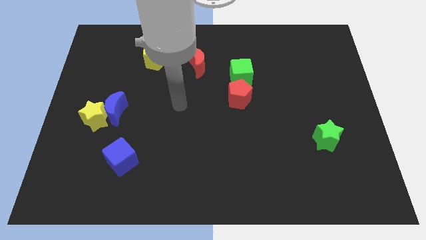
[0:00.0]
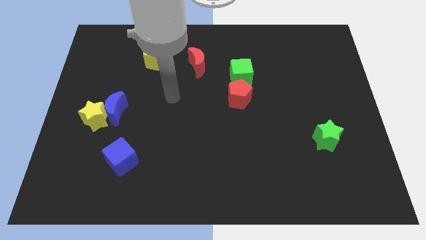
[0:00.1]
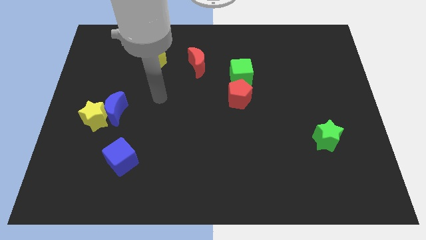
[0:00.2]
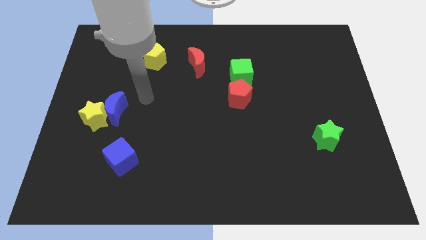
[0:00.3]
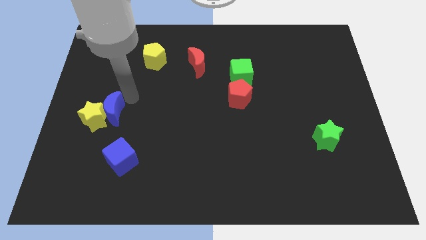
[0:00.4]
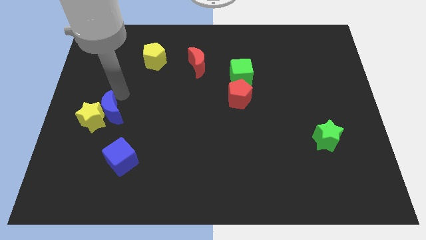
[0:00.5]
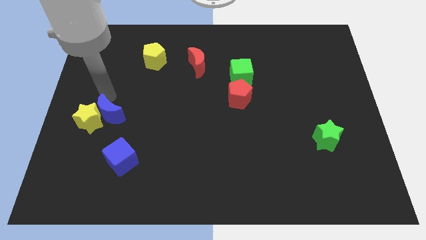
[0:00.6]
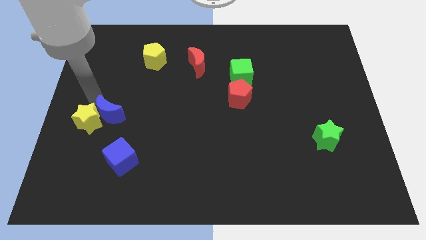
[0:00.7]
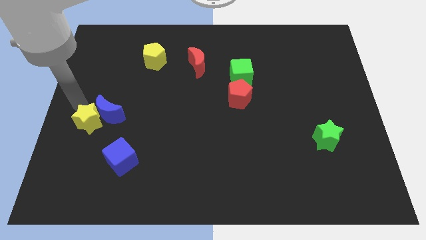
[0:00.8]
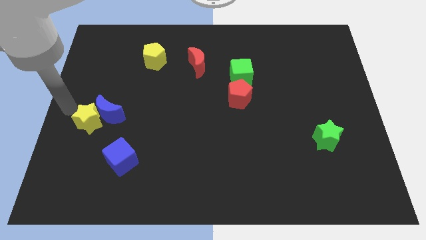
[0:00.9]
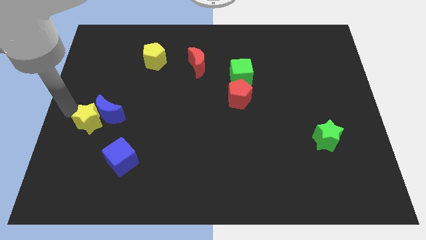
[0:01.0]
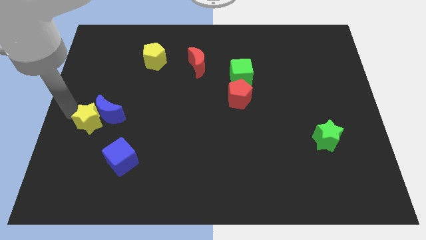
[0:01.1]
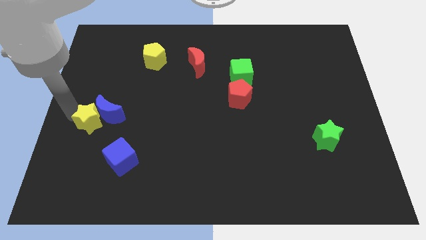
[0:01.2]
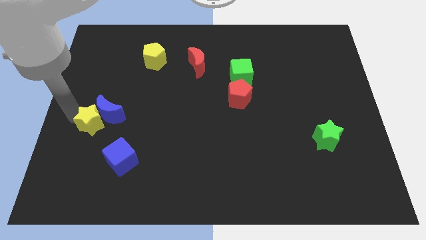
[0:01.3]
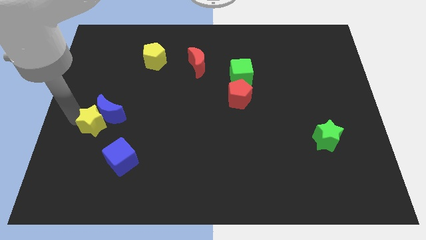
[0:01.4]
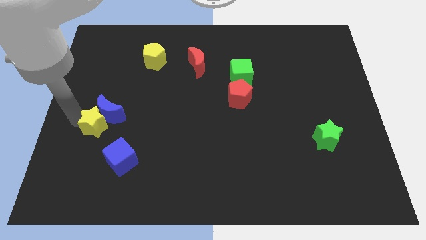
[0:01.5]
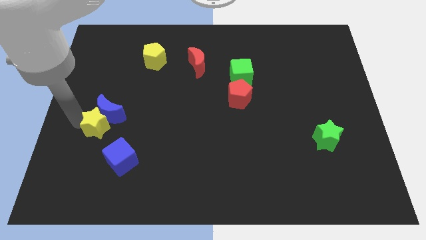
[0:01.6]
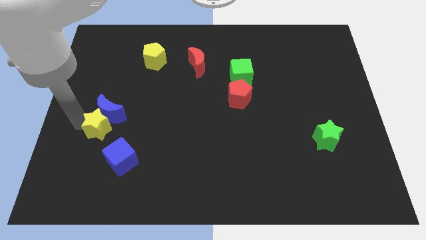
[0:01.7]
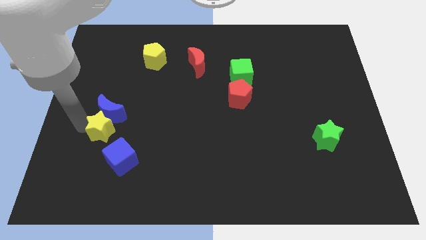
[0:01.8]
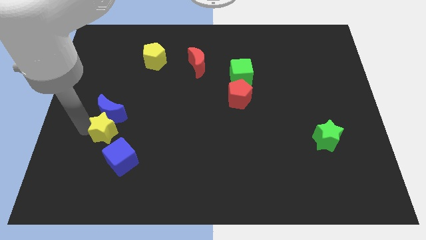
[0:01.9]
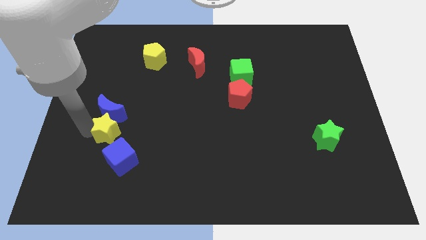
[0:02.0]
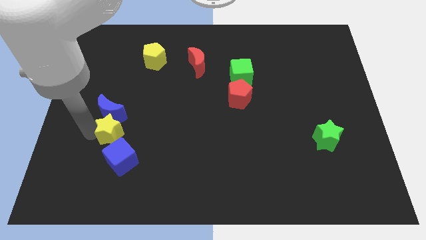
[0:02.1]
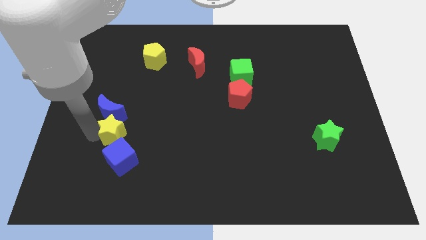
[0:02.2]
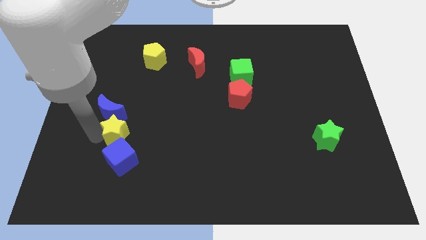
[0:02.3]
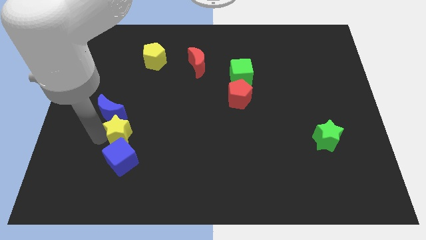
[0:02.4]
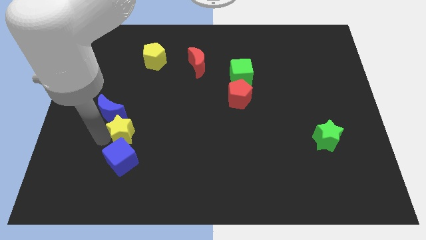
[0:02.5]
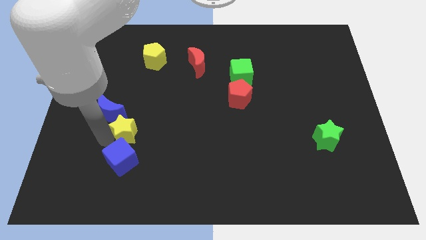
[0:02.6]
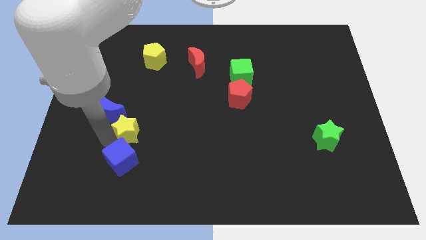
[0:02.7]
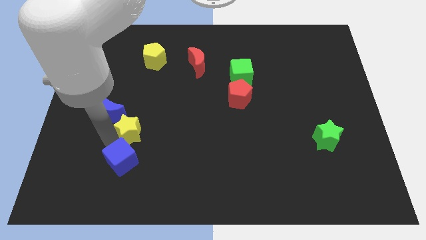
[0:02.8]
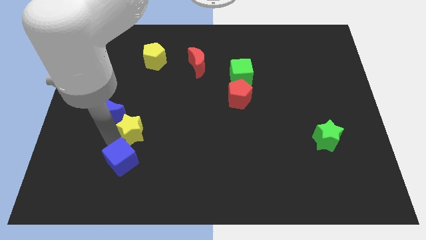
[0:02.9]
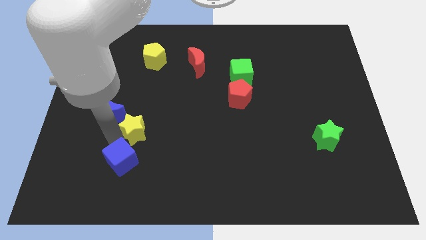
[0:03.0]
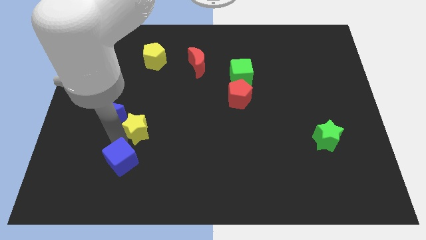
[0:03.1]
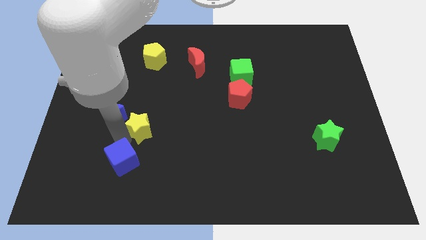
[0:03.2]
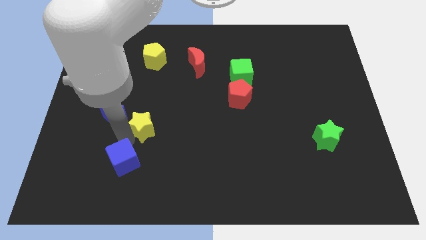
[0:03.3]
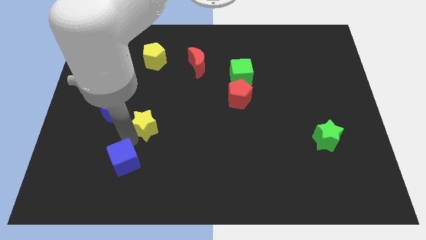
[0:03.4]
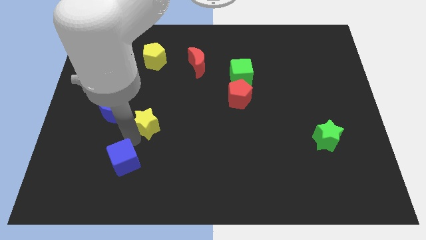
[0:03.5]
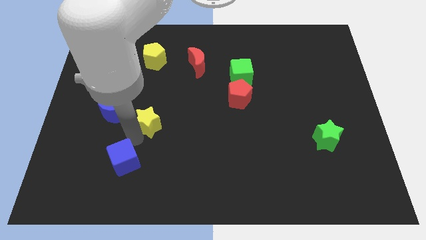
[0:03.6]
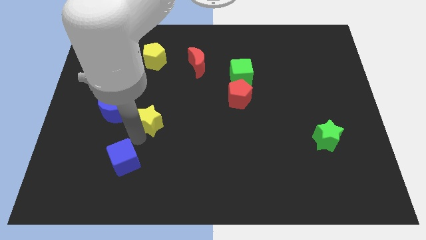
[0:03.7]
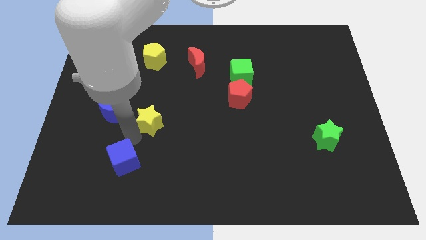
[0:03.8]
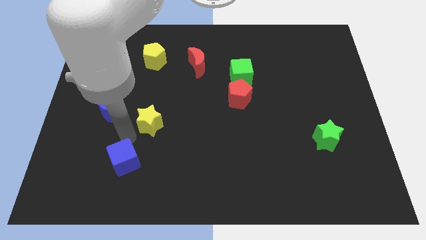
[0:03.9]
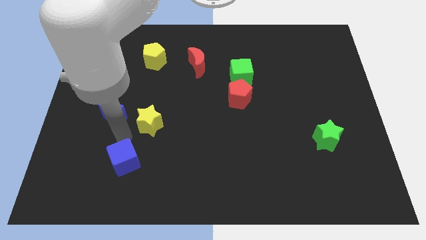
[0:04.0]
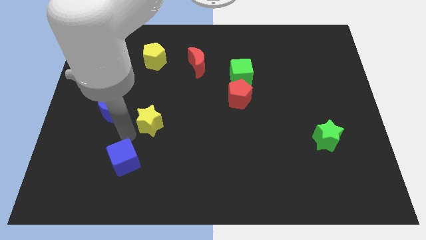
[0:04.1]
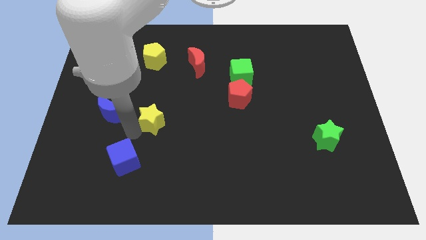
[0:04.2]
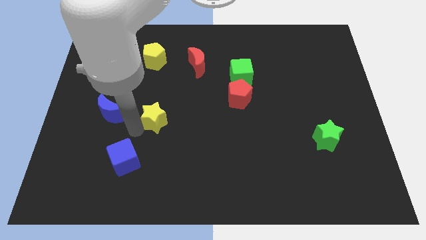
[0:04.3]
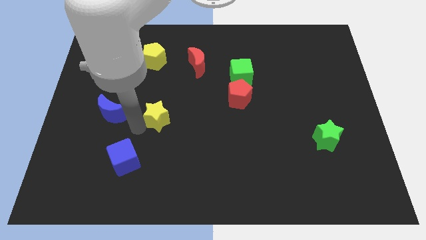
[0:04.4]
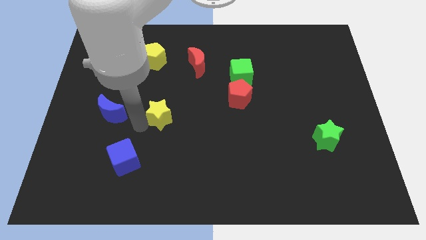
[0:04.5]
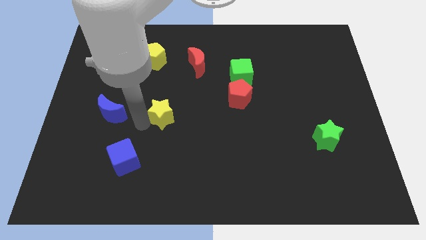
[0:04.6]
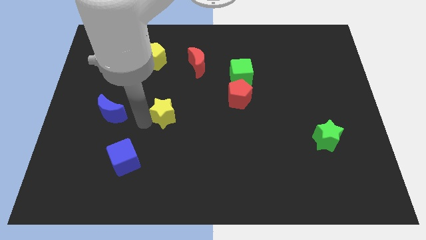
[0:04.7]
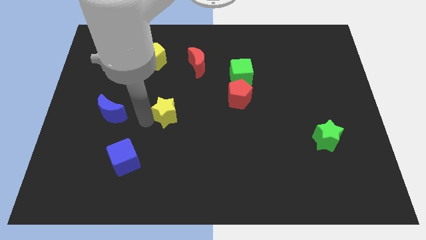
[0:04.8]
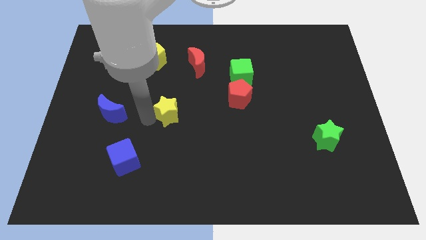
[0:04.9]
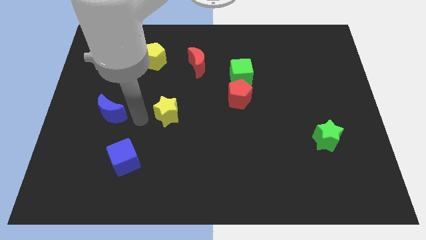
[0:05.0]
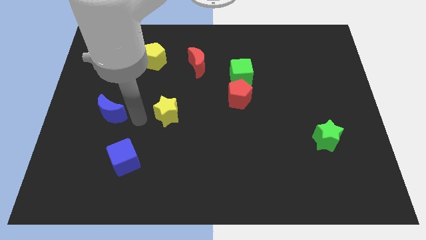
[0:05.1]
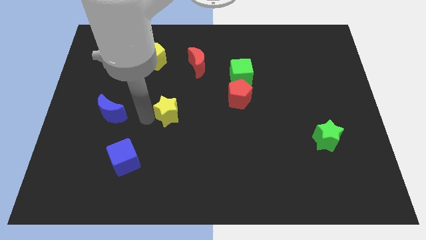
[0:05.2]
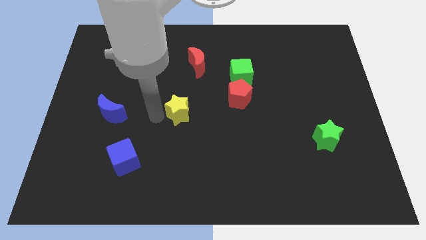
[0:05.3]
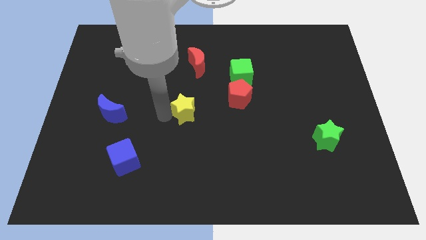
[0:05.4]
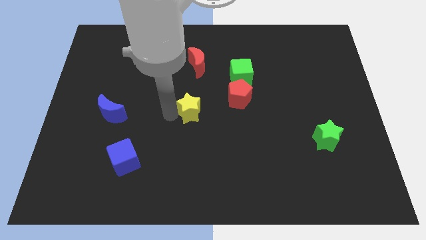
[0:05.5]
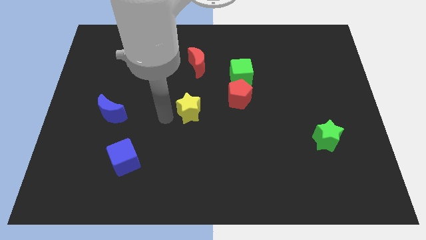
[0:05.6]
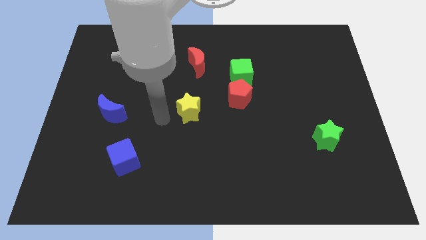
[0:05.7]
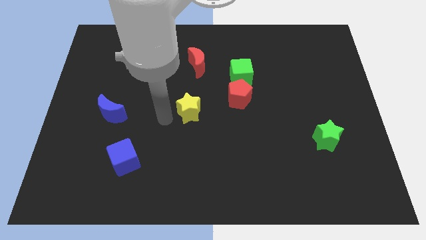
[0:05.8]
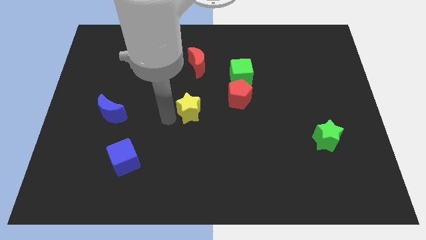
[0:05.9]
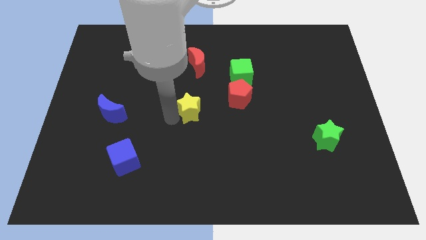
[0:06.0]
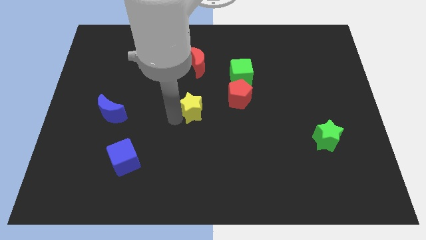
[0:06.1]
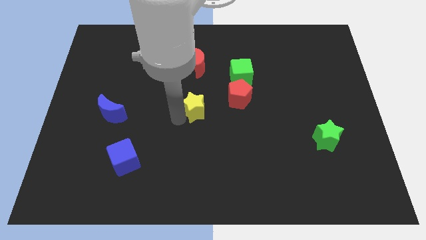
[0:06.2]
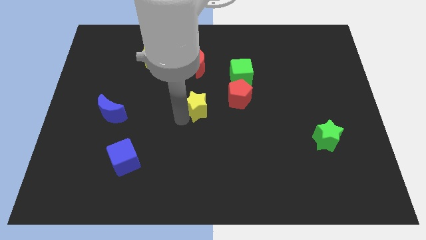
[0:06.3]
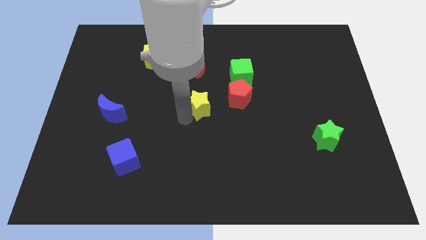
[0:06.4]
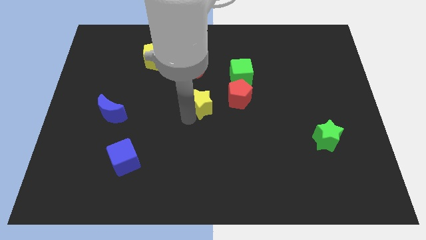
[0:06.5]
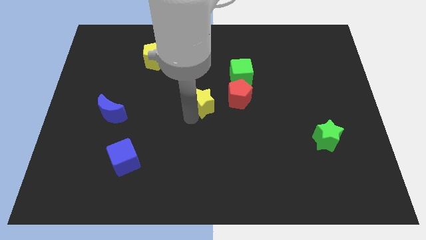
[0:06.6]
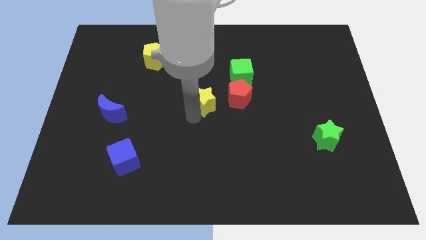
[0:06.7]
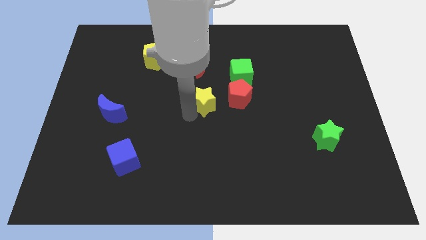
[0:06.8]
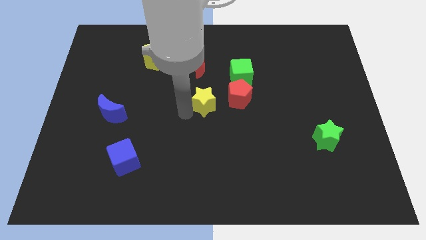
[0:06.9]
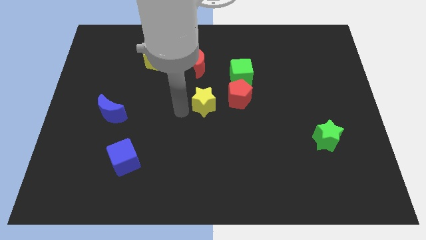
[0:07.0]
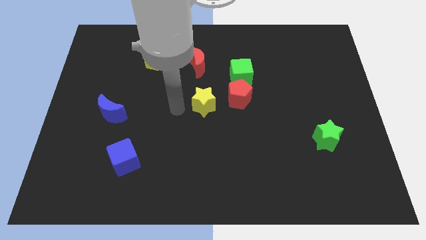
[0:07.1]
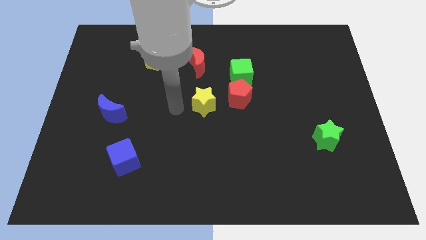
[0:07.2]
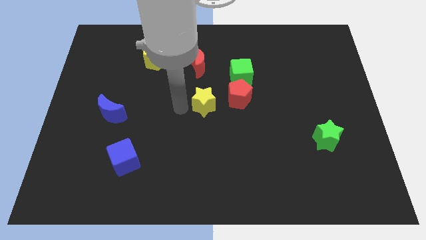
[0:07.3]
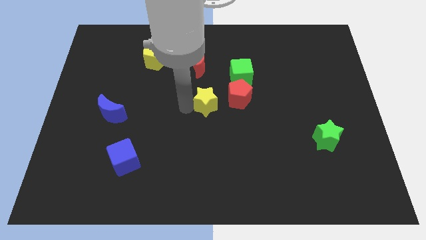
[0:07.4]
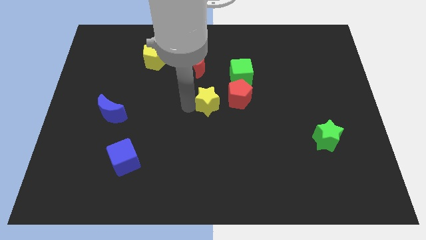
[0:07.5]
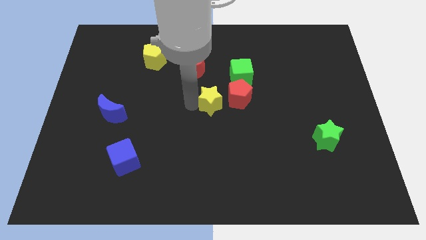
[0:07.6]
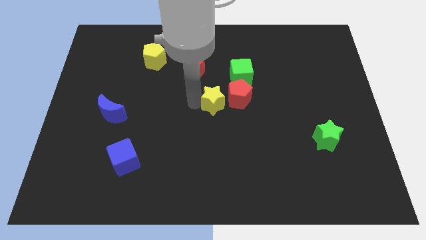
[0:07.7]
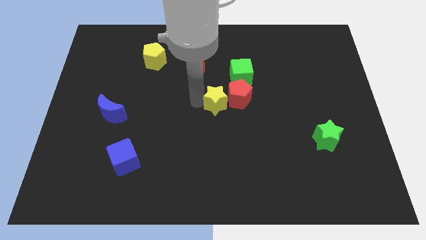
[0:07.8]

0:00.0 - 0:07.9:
slide the yellow star to the red pentagon
